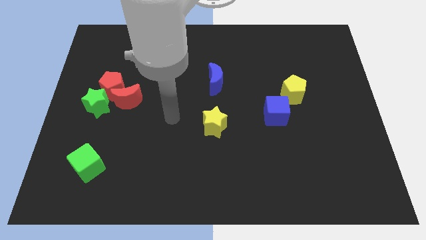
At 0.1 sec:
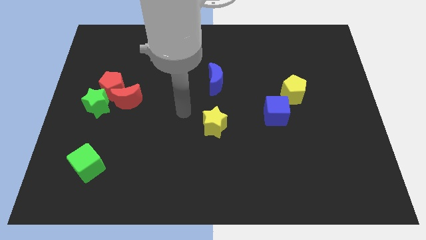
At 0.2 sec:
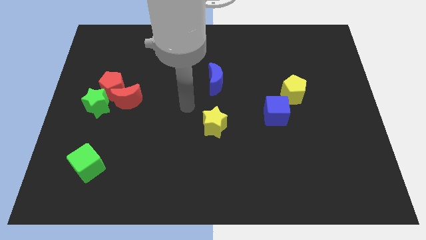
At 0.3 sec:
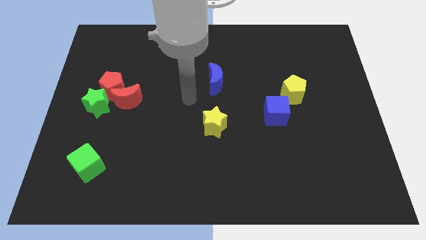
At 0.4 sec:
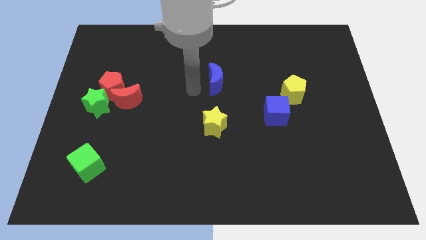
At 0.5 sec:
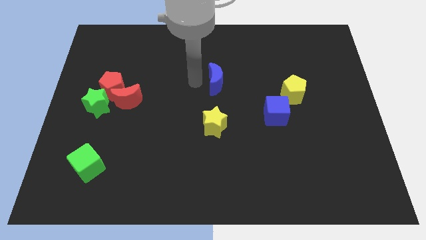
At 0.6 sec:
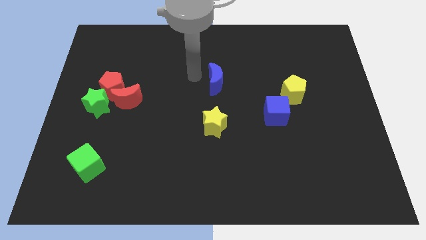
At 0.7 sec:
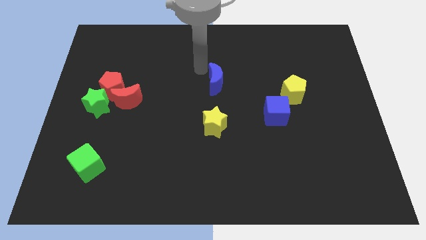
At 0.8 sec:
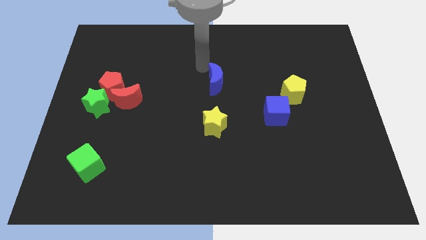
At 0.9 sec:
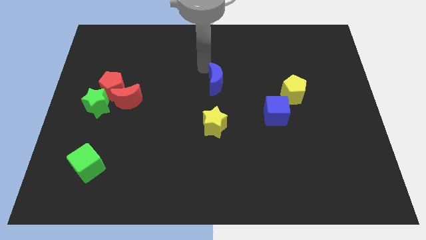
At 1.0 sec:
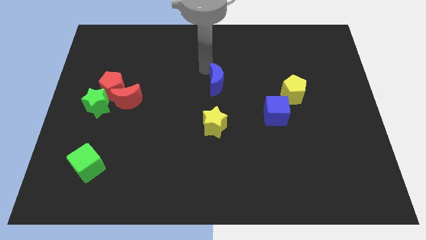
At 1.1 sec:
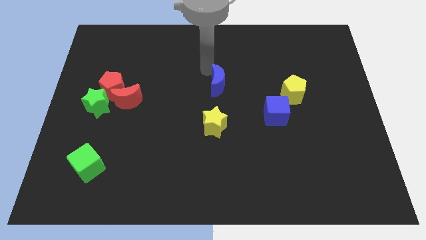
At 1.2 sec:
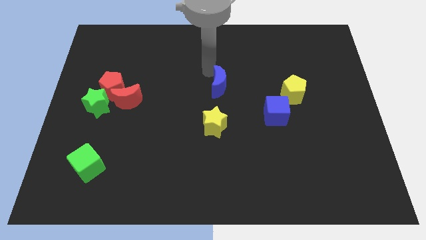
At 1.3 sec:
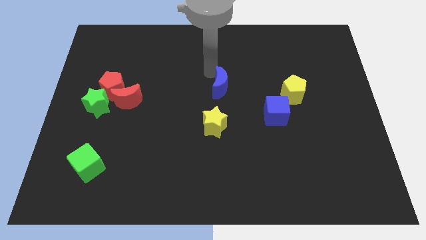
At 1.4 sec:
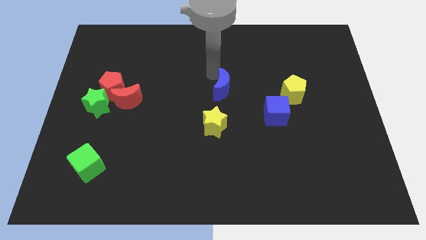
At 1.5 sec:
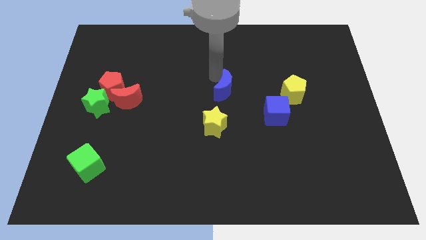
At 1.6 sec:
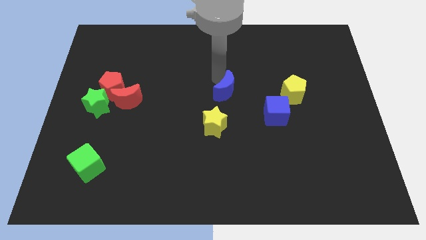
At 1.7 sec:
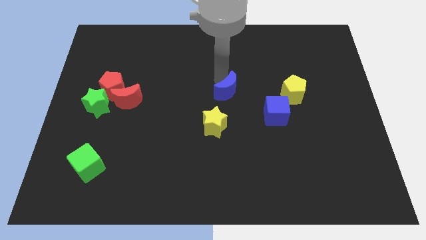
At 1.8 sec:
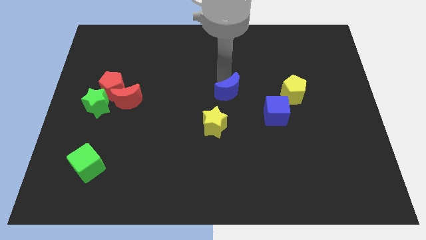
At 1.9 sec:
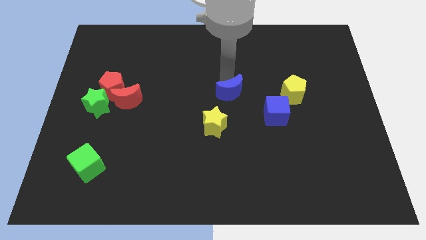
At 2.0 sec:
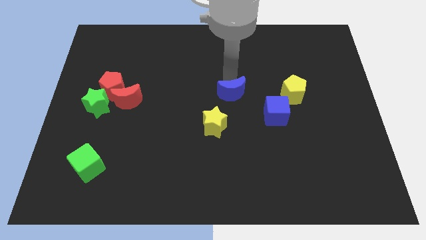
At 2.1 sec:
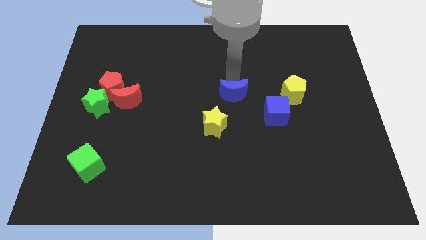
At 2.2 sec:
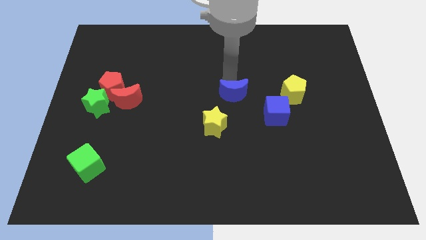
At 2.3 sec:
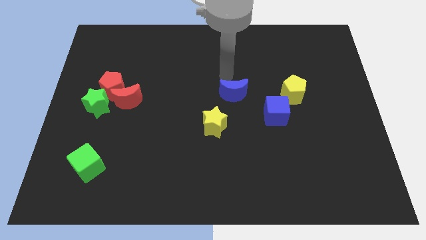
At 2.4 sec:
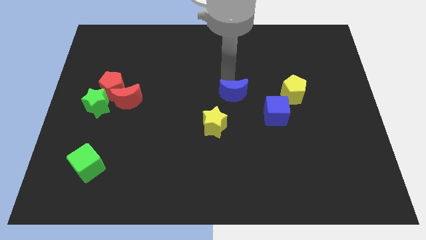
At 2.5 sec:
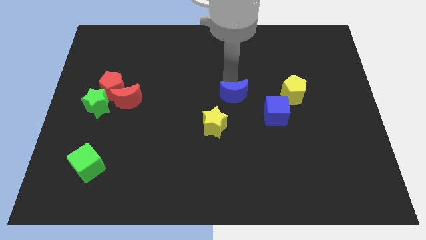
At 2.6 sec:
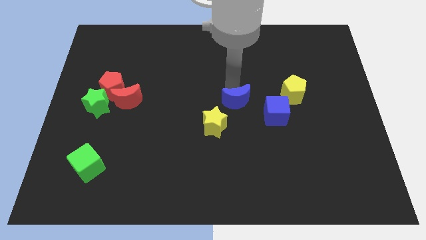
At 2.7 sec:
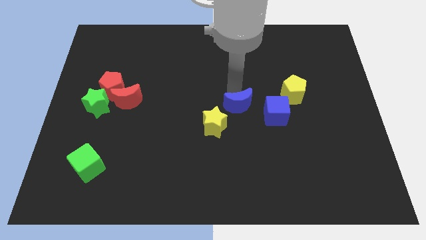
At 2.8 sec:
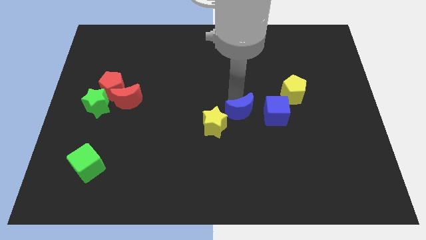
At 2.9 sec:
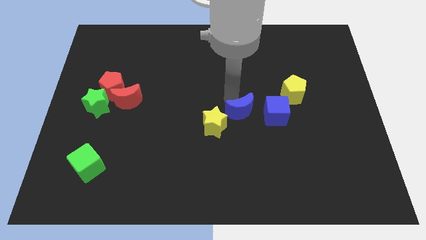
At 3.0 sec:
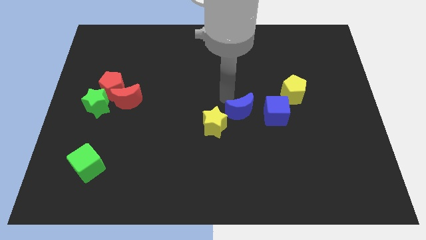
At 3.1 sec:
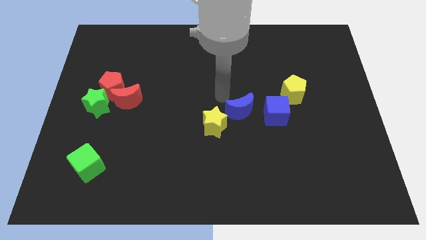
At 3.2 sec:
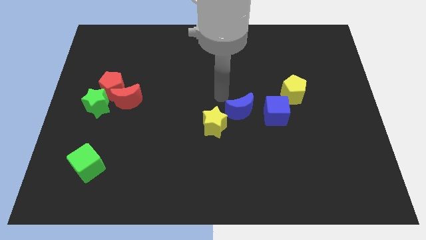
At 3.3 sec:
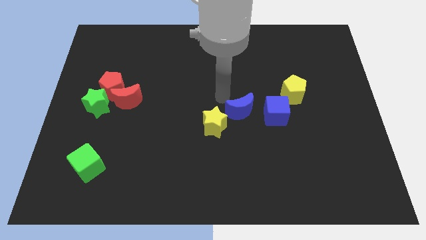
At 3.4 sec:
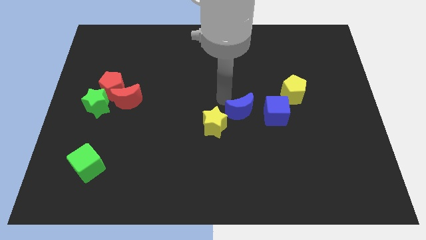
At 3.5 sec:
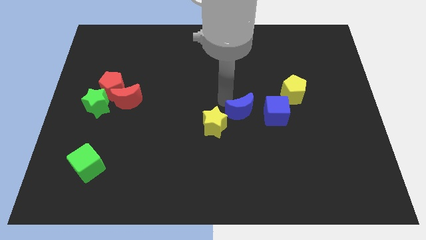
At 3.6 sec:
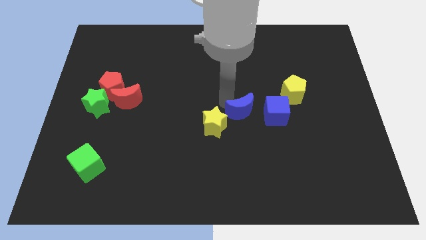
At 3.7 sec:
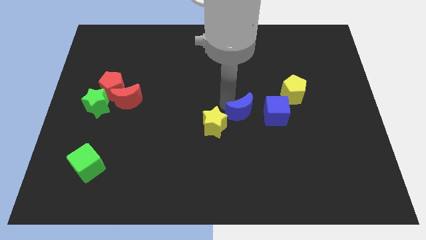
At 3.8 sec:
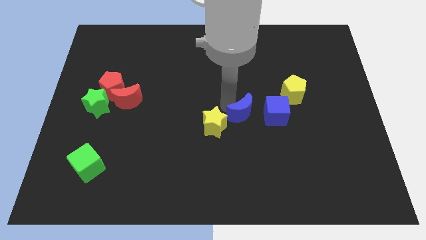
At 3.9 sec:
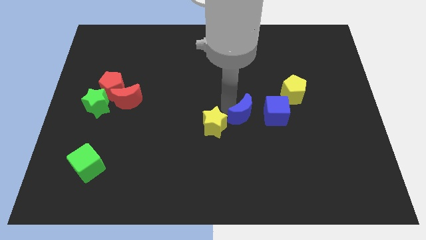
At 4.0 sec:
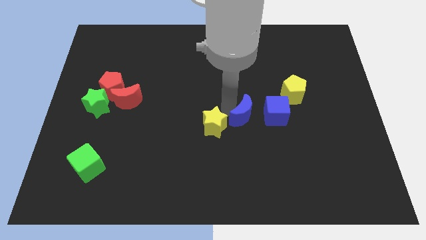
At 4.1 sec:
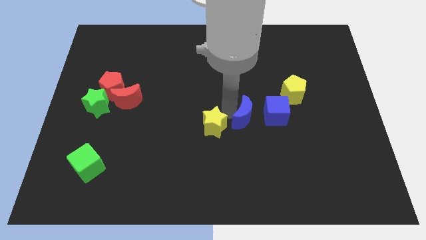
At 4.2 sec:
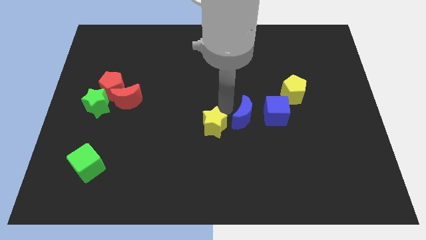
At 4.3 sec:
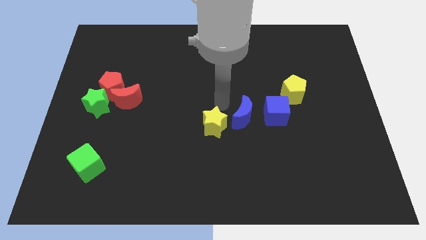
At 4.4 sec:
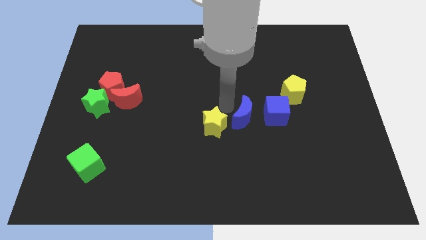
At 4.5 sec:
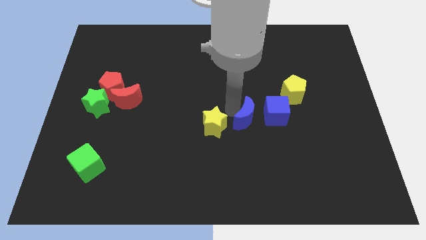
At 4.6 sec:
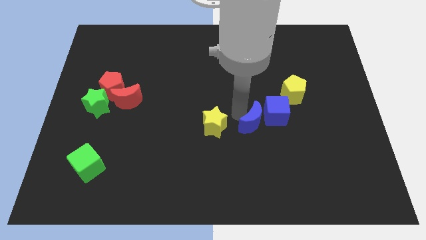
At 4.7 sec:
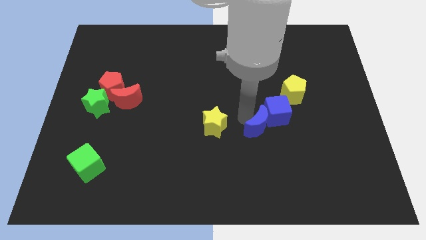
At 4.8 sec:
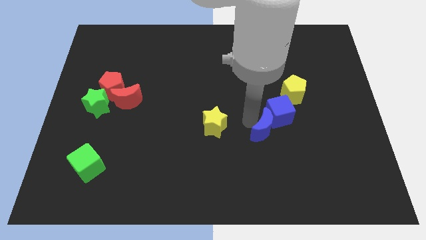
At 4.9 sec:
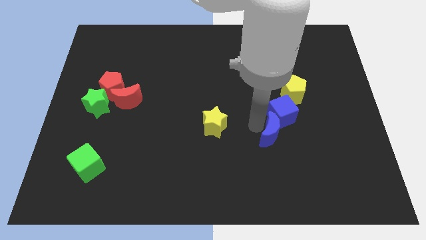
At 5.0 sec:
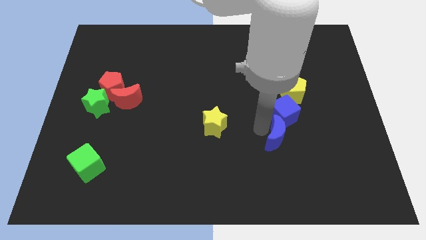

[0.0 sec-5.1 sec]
push the blue moon down and to the right

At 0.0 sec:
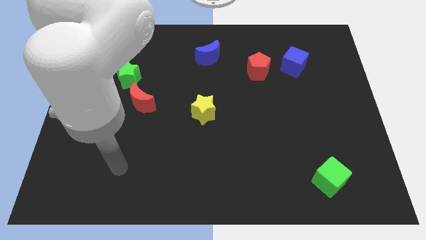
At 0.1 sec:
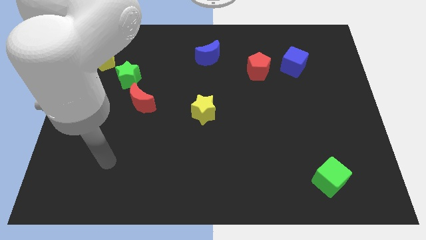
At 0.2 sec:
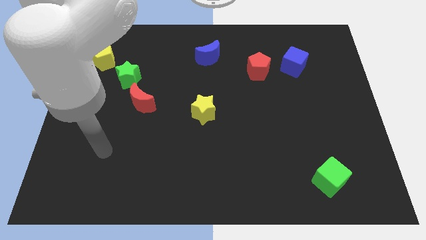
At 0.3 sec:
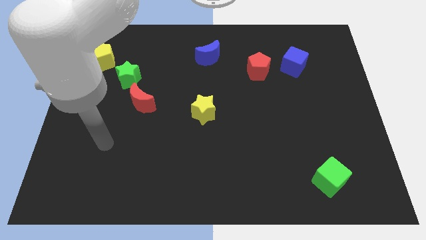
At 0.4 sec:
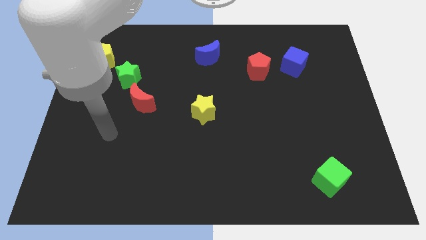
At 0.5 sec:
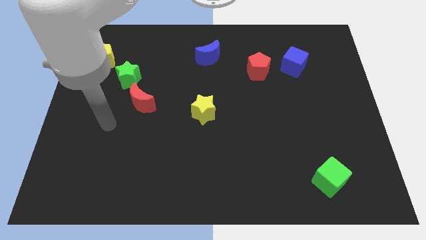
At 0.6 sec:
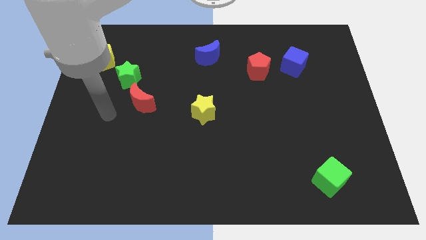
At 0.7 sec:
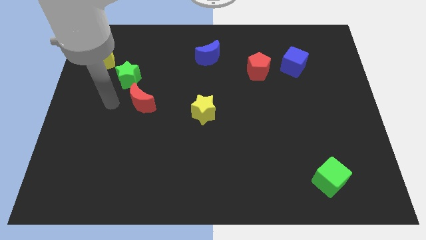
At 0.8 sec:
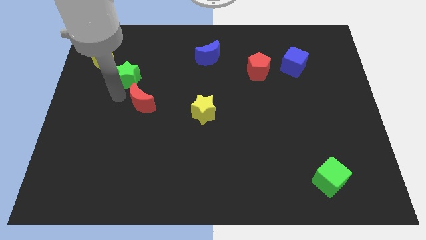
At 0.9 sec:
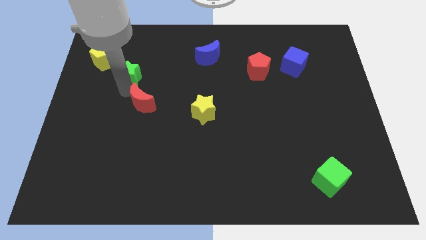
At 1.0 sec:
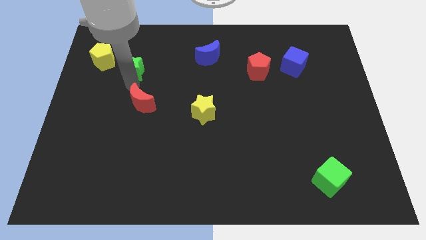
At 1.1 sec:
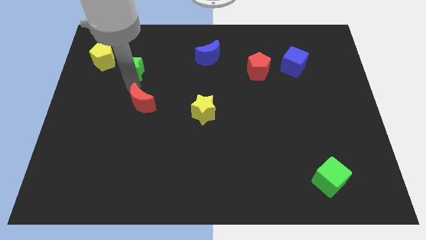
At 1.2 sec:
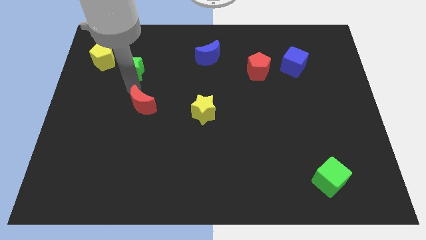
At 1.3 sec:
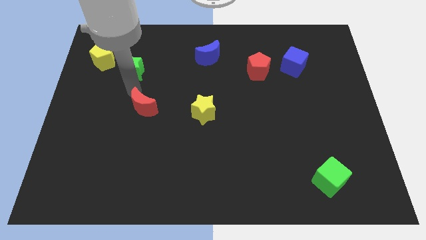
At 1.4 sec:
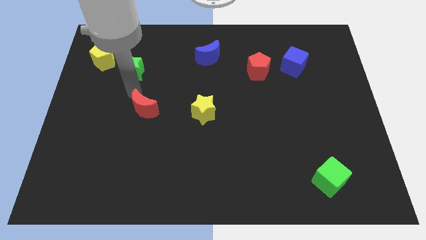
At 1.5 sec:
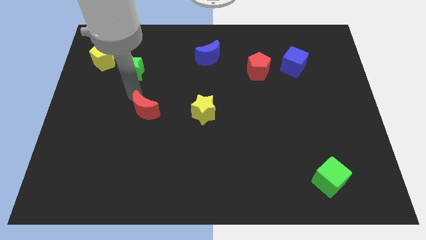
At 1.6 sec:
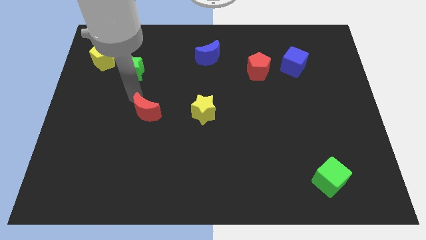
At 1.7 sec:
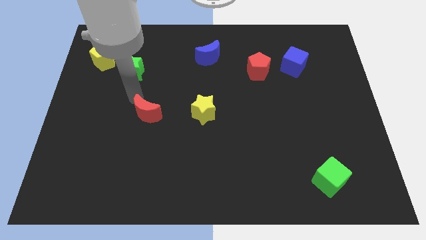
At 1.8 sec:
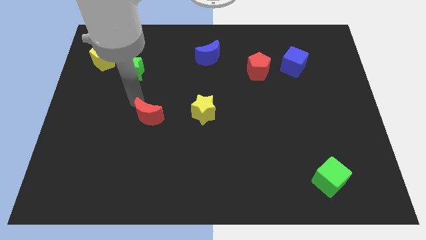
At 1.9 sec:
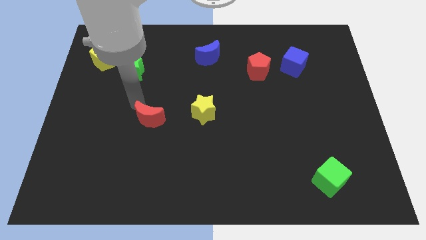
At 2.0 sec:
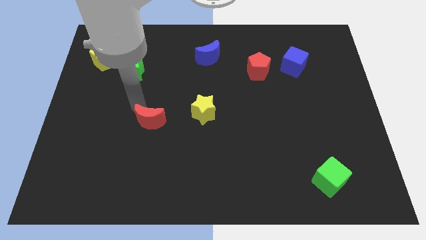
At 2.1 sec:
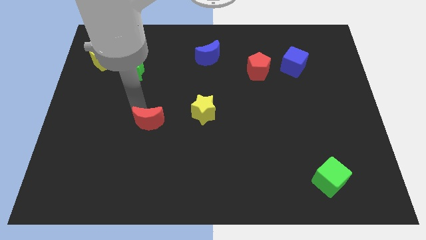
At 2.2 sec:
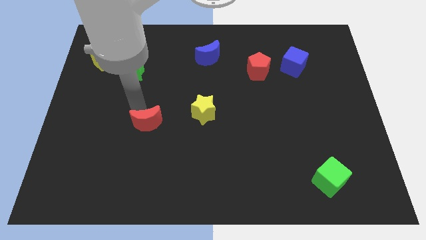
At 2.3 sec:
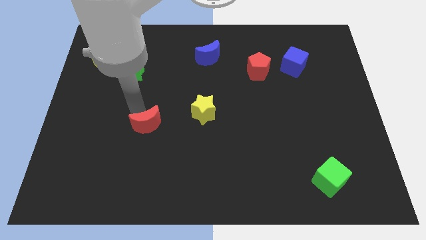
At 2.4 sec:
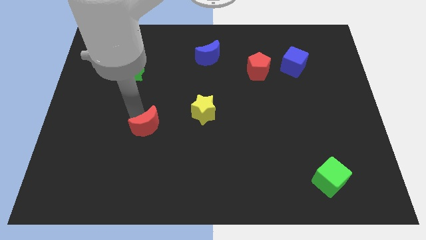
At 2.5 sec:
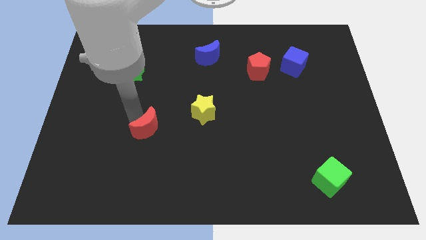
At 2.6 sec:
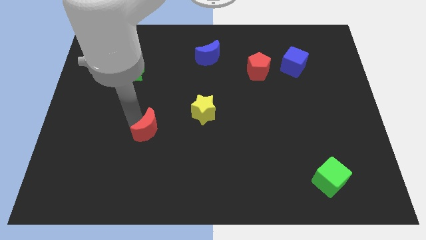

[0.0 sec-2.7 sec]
push the red moon diagonally down and right a little

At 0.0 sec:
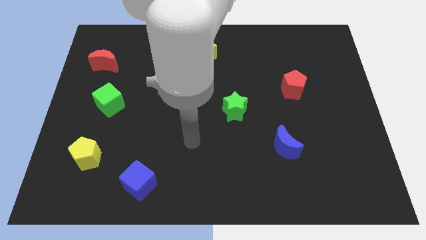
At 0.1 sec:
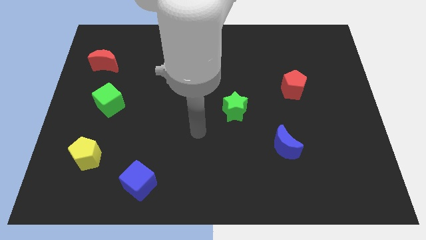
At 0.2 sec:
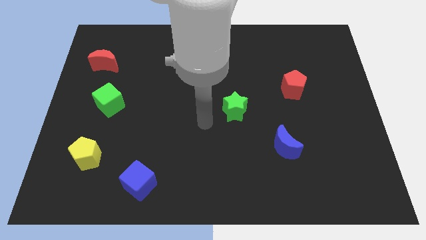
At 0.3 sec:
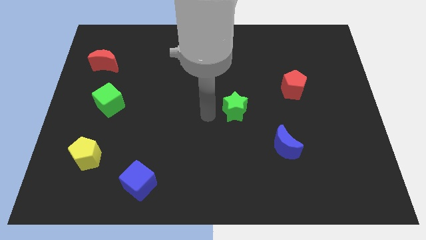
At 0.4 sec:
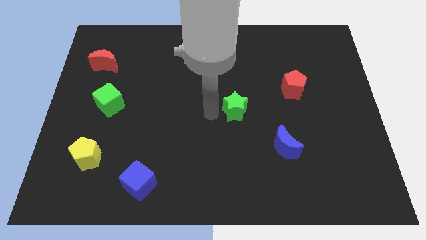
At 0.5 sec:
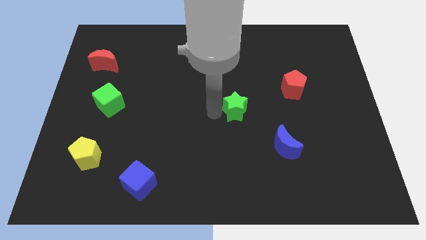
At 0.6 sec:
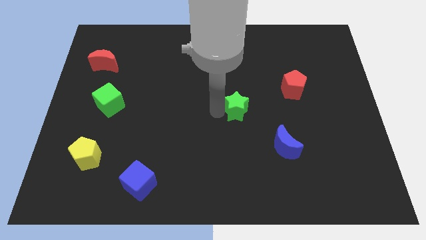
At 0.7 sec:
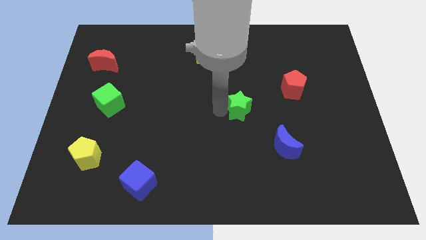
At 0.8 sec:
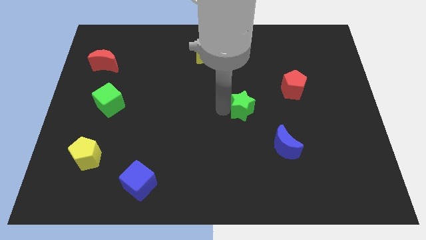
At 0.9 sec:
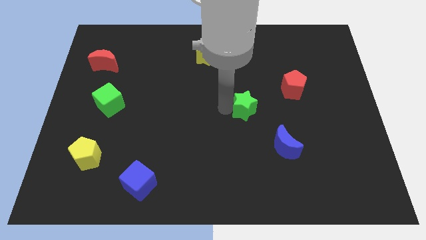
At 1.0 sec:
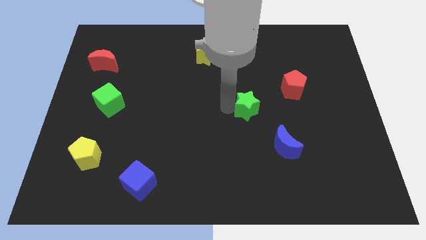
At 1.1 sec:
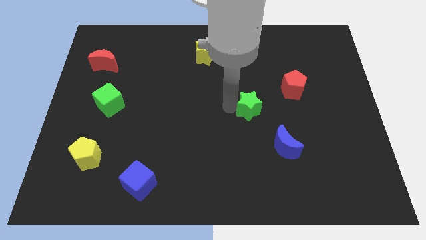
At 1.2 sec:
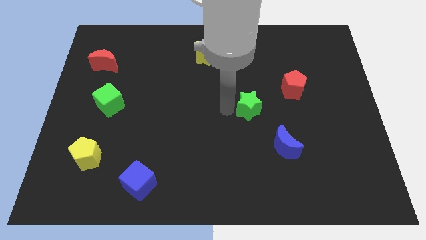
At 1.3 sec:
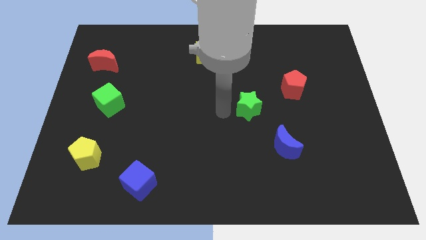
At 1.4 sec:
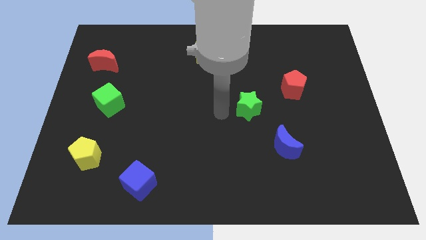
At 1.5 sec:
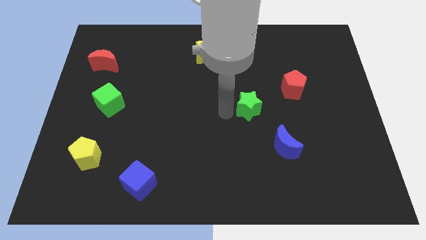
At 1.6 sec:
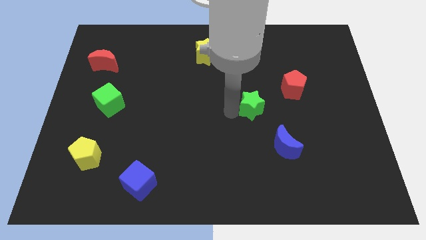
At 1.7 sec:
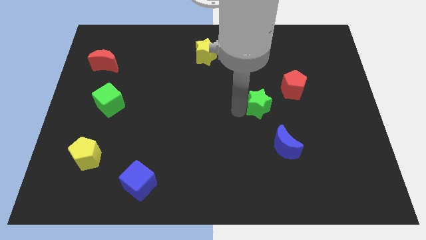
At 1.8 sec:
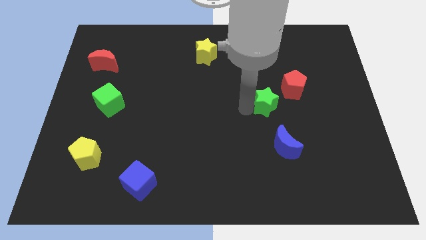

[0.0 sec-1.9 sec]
slightly push the green star to the right
